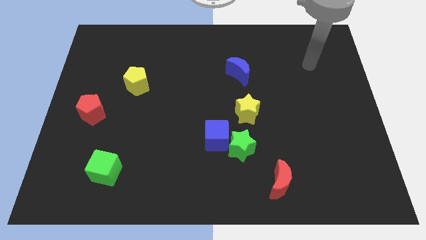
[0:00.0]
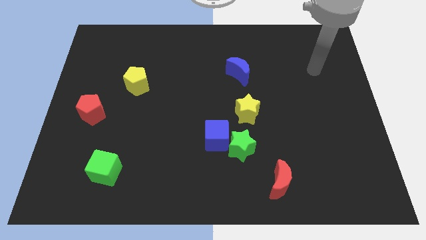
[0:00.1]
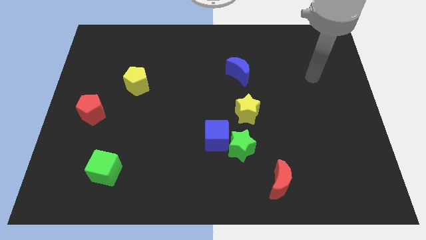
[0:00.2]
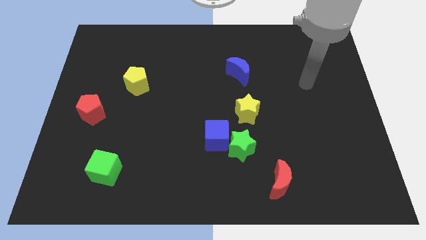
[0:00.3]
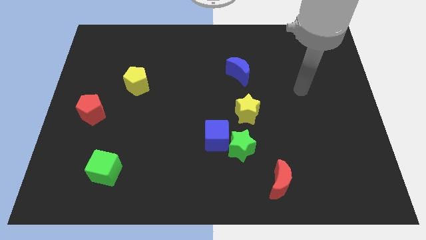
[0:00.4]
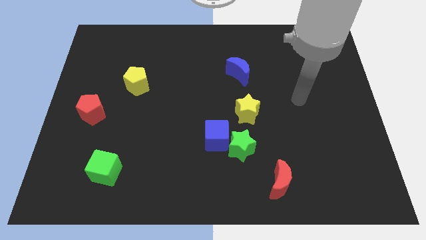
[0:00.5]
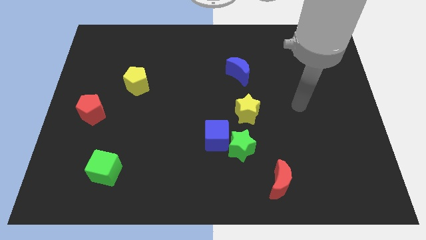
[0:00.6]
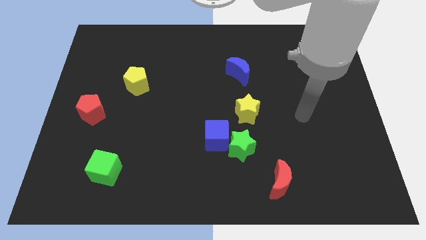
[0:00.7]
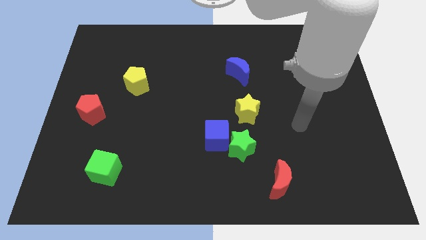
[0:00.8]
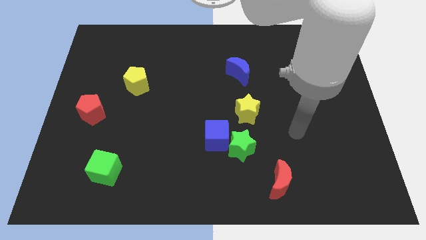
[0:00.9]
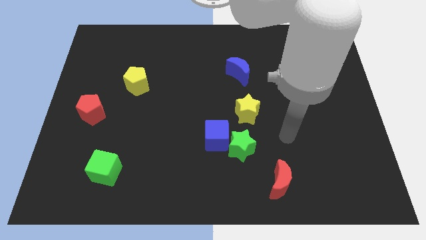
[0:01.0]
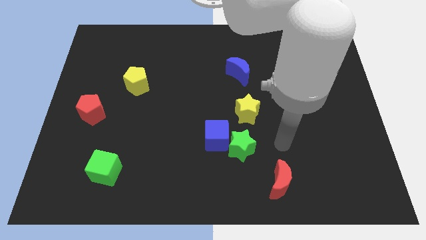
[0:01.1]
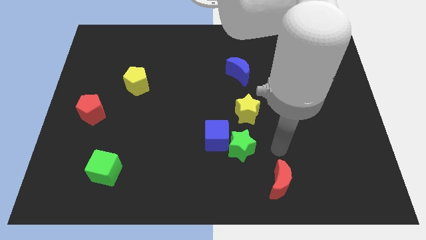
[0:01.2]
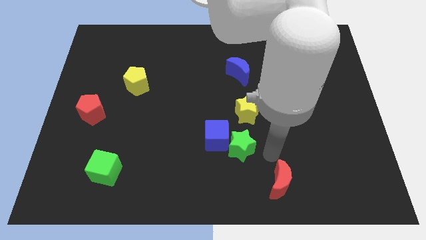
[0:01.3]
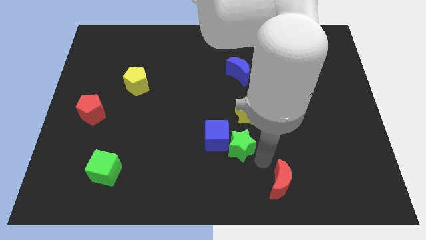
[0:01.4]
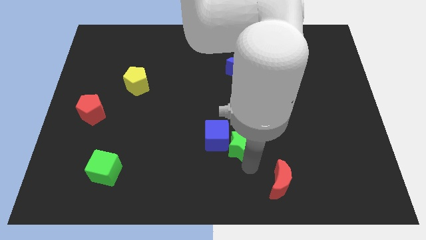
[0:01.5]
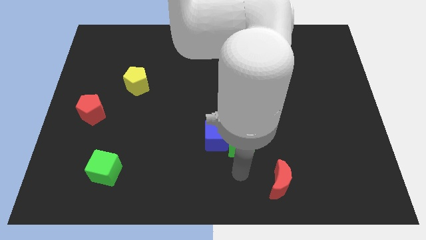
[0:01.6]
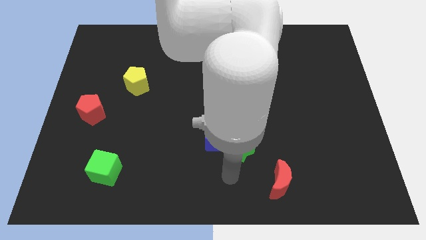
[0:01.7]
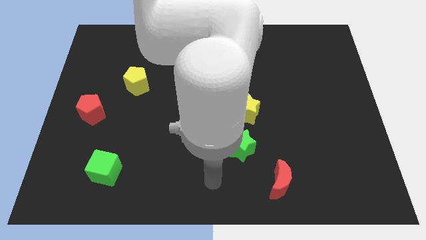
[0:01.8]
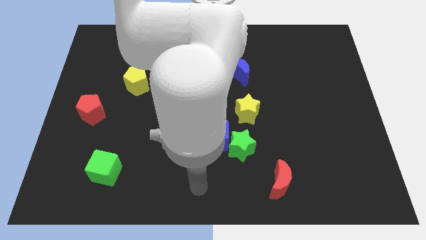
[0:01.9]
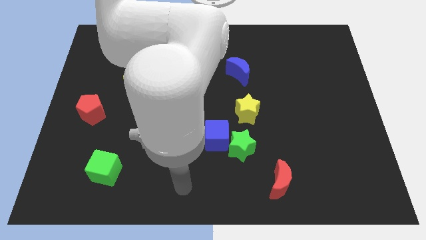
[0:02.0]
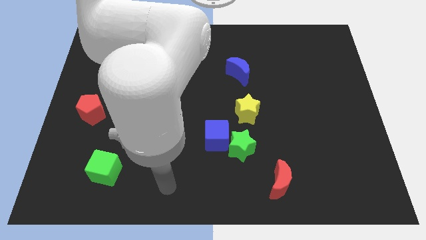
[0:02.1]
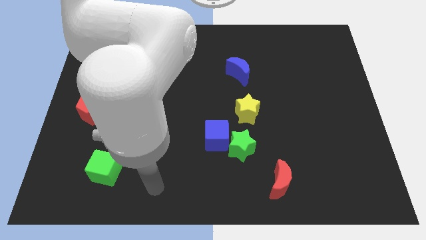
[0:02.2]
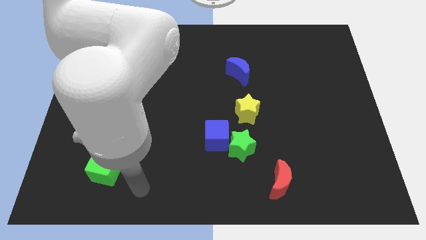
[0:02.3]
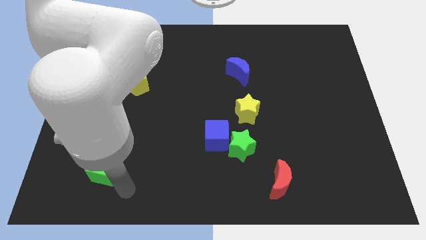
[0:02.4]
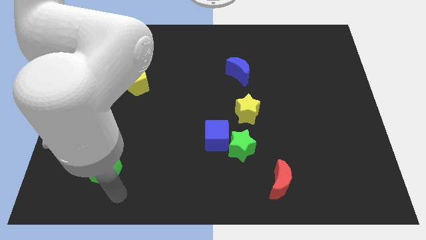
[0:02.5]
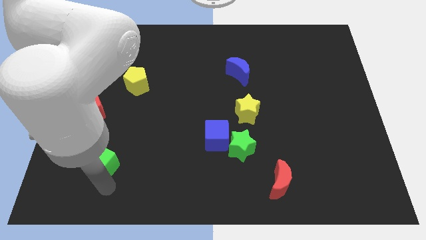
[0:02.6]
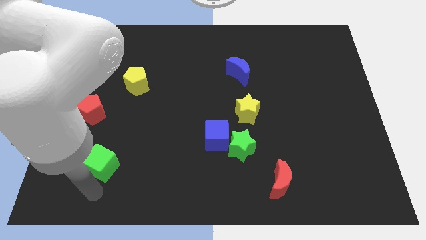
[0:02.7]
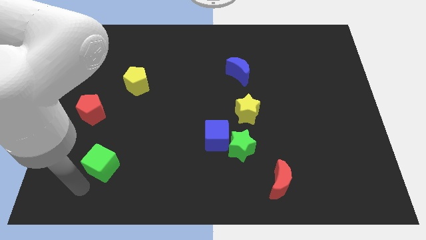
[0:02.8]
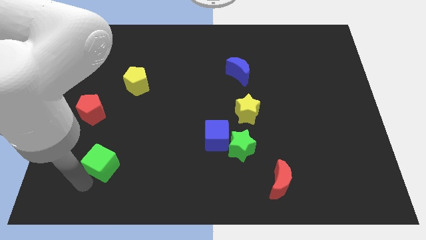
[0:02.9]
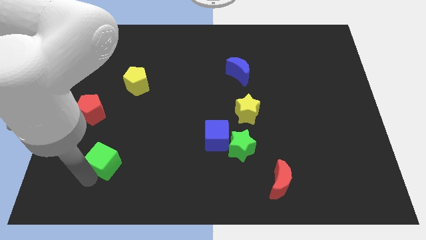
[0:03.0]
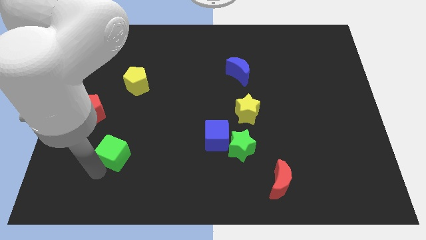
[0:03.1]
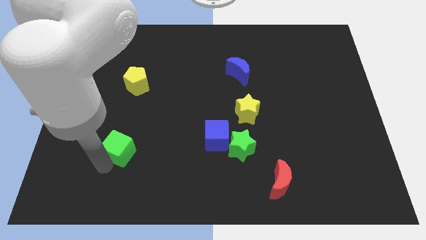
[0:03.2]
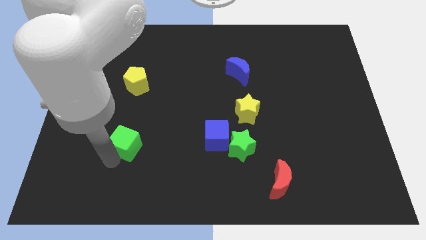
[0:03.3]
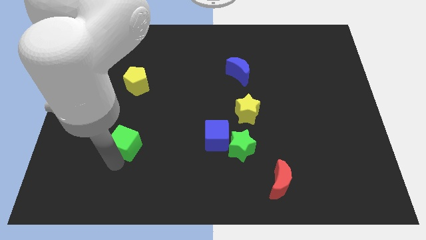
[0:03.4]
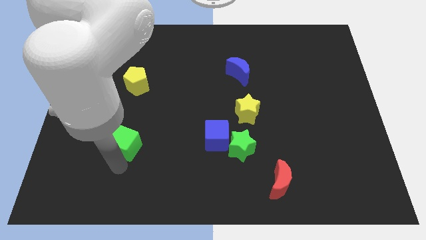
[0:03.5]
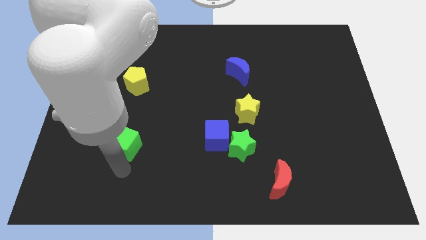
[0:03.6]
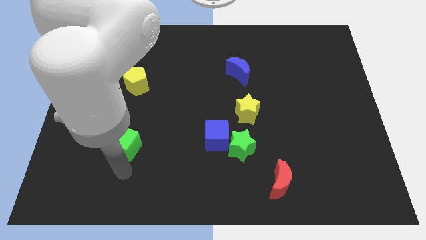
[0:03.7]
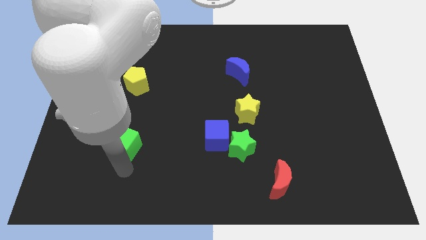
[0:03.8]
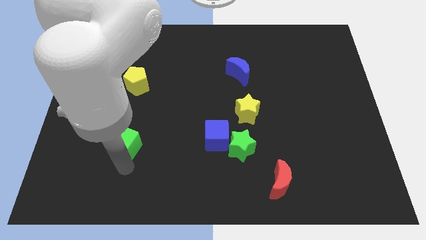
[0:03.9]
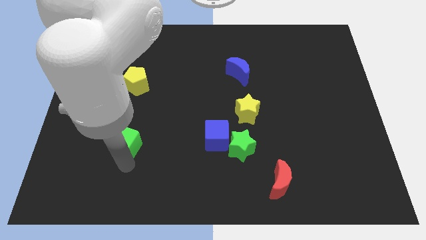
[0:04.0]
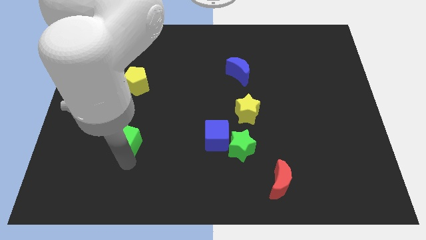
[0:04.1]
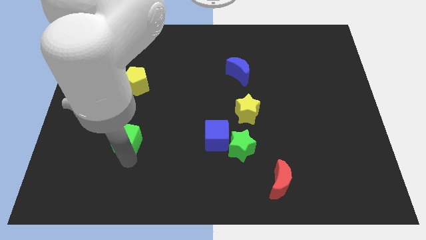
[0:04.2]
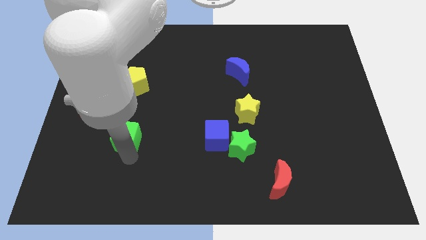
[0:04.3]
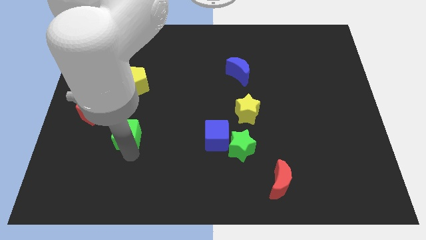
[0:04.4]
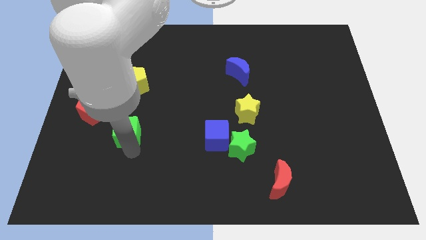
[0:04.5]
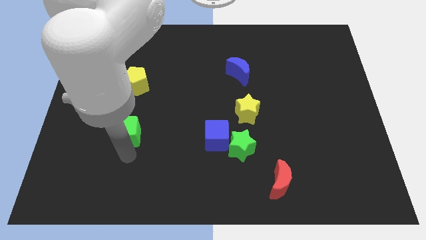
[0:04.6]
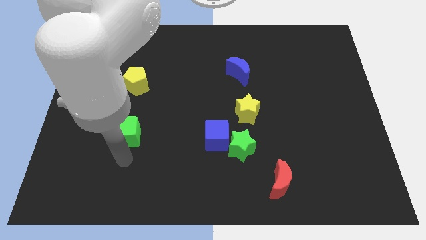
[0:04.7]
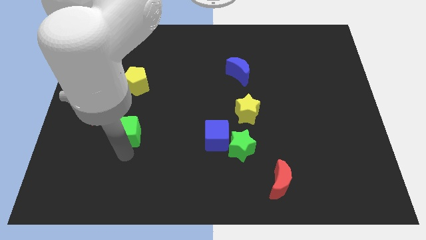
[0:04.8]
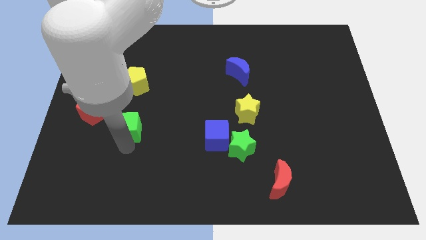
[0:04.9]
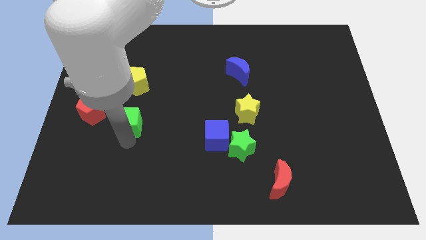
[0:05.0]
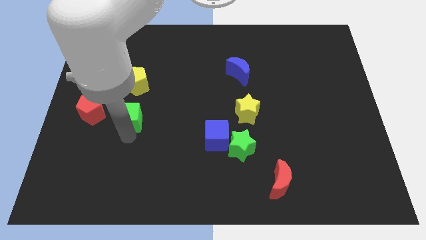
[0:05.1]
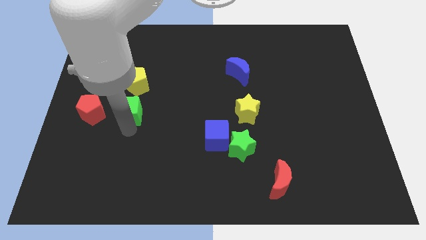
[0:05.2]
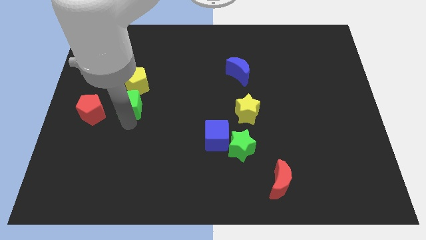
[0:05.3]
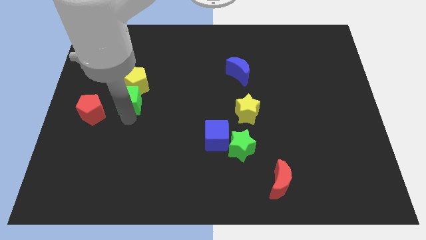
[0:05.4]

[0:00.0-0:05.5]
put the green cube next to the yellow pentagon

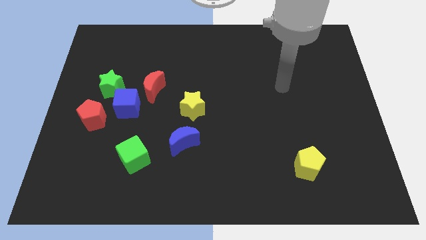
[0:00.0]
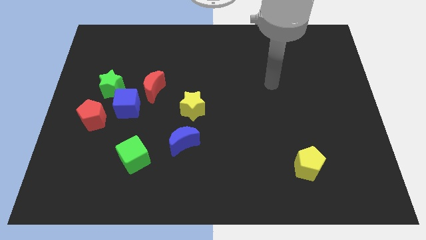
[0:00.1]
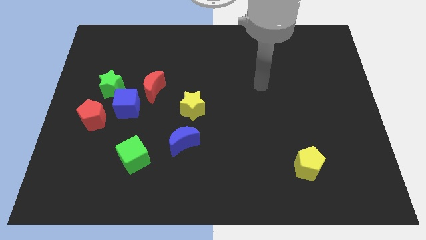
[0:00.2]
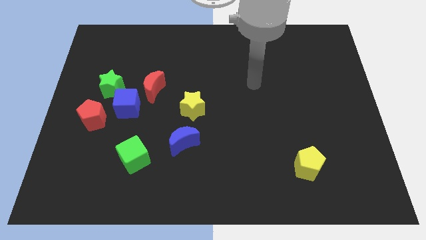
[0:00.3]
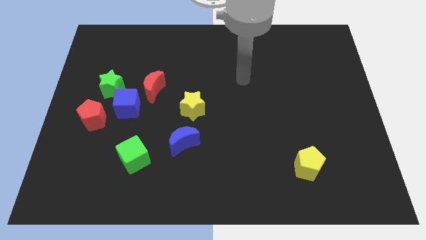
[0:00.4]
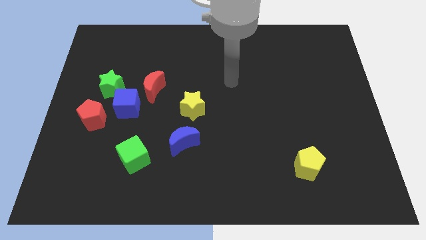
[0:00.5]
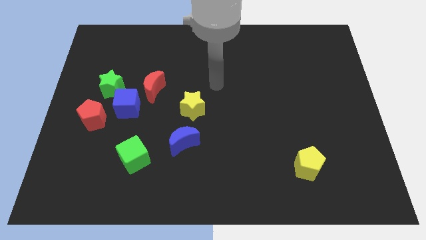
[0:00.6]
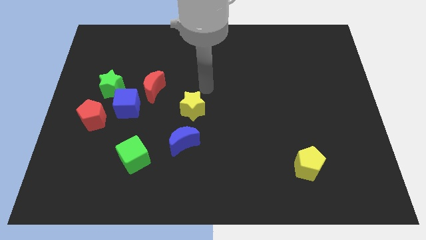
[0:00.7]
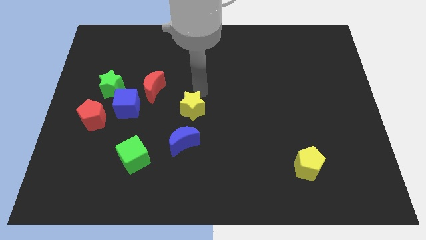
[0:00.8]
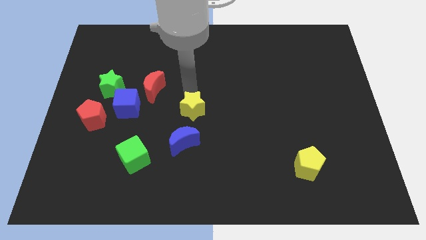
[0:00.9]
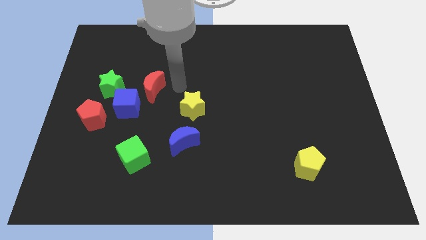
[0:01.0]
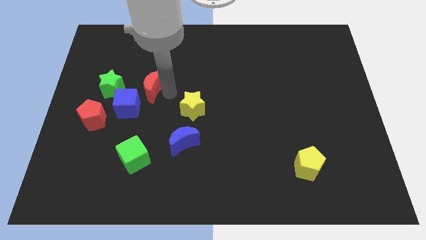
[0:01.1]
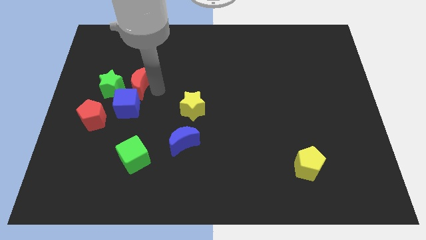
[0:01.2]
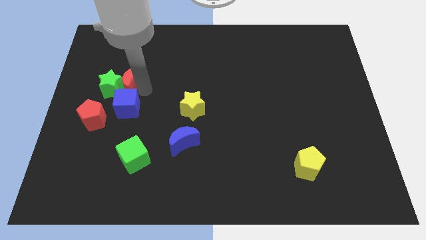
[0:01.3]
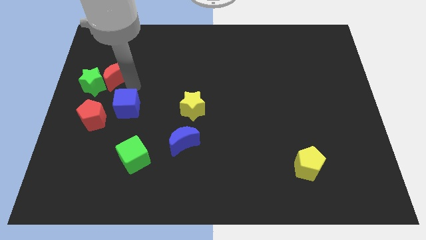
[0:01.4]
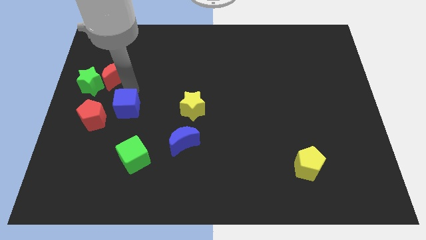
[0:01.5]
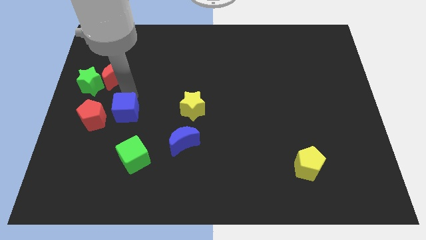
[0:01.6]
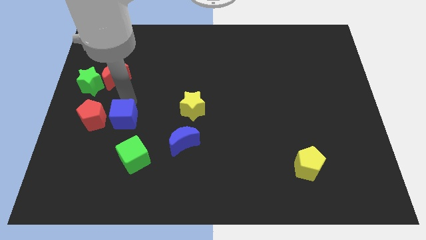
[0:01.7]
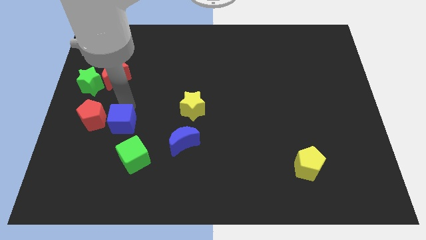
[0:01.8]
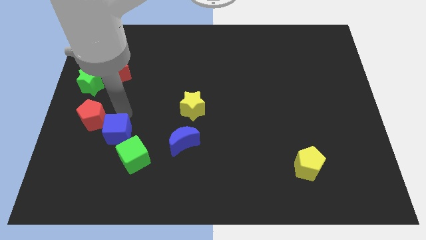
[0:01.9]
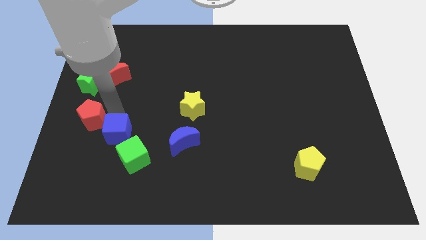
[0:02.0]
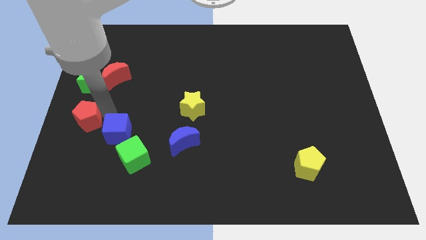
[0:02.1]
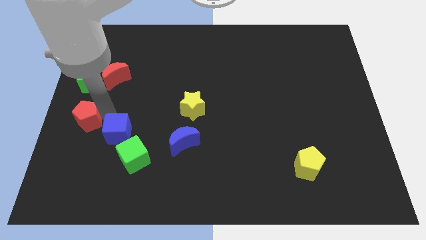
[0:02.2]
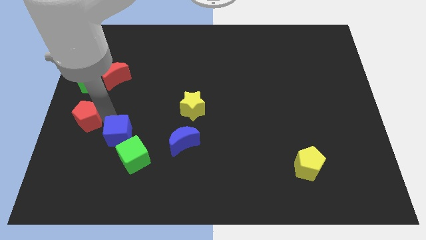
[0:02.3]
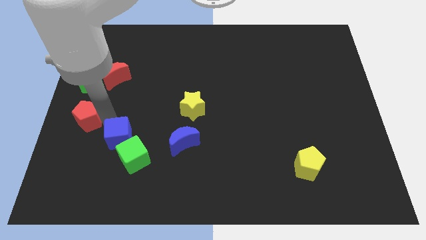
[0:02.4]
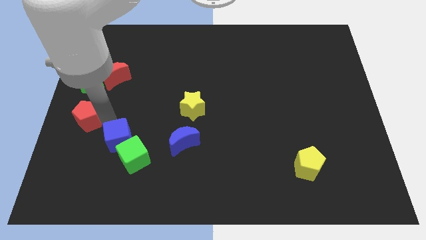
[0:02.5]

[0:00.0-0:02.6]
push the blue cube to the green cube
